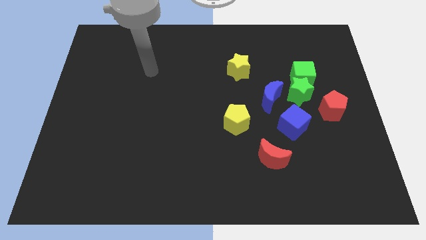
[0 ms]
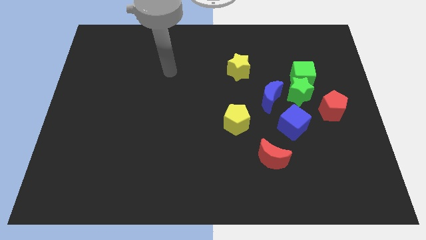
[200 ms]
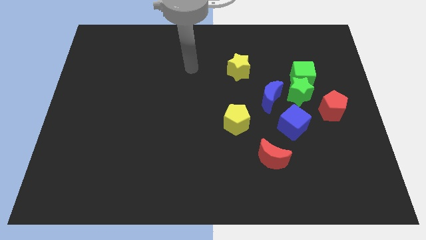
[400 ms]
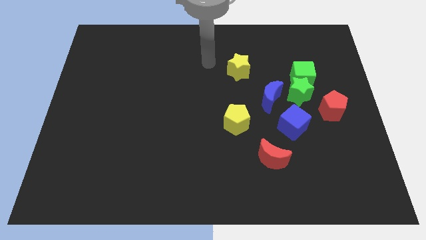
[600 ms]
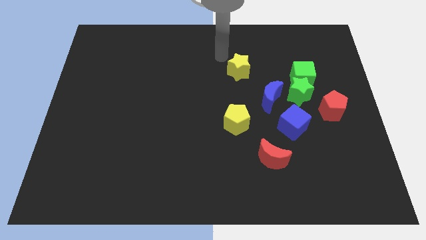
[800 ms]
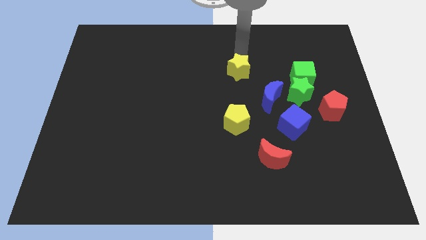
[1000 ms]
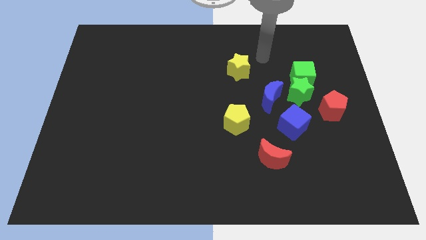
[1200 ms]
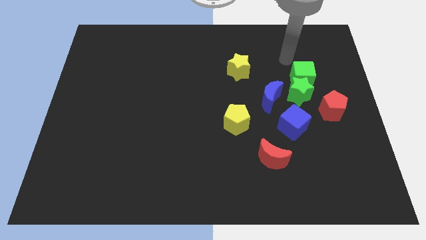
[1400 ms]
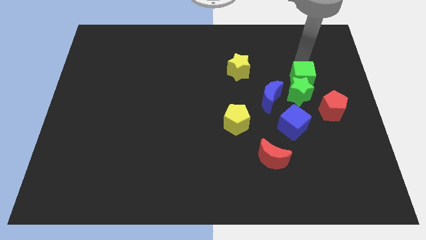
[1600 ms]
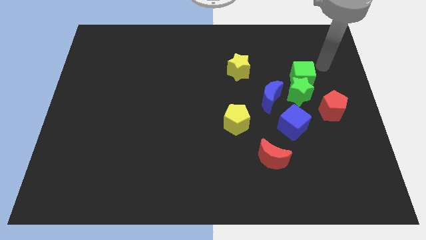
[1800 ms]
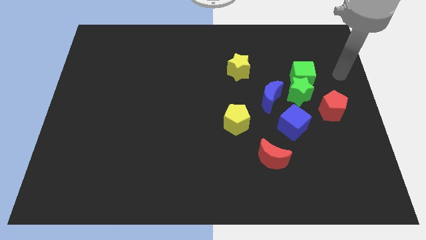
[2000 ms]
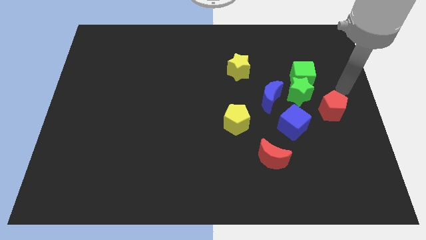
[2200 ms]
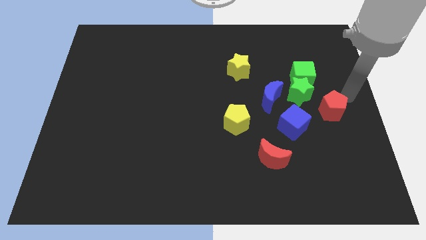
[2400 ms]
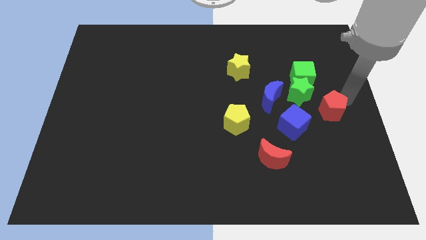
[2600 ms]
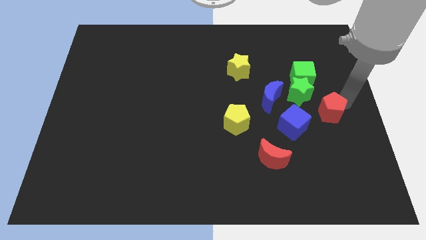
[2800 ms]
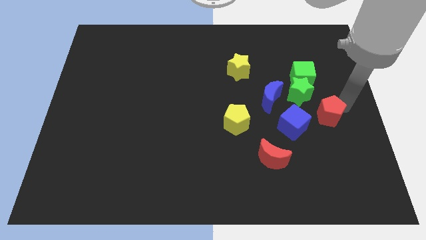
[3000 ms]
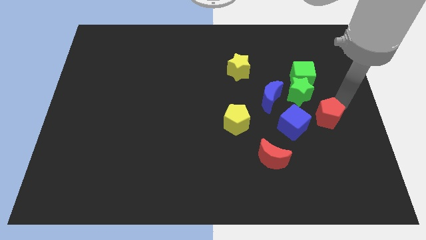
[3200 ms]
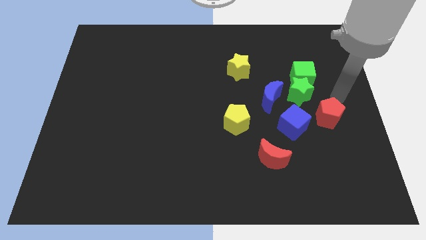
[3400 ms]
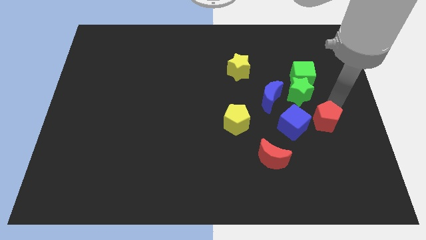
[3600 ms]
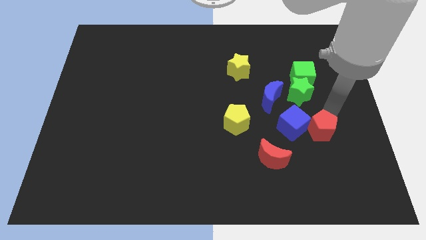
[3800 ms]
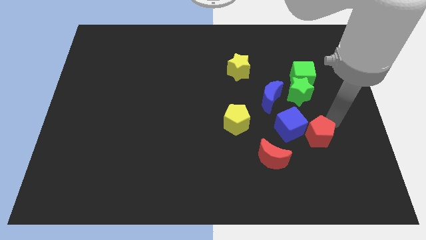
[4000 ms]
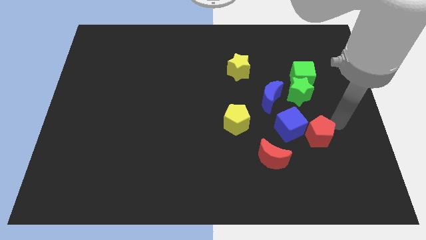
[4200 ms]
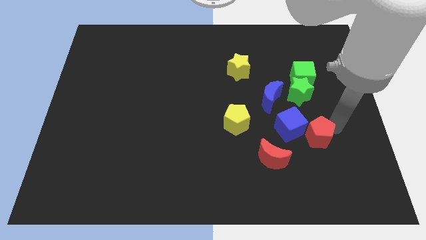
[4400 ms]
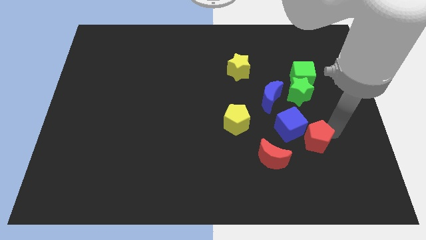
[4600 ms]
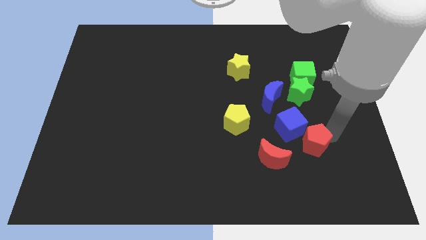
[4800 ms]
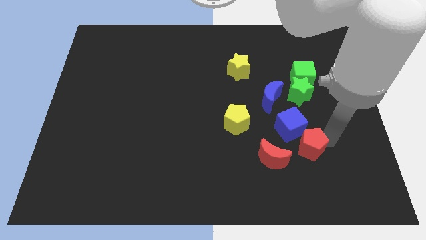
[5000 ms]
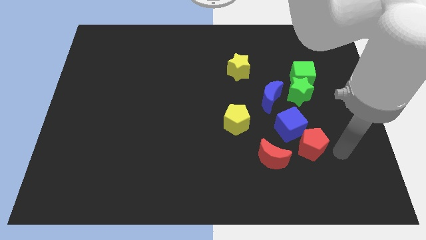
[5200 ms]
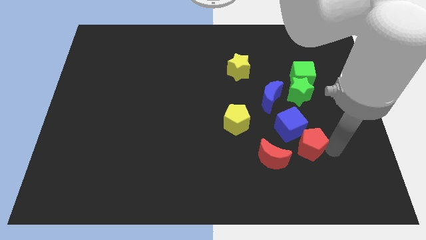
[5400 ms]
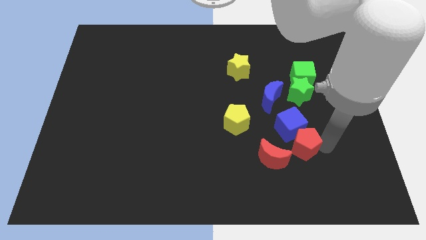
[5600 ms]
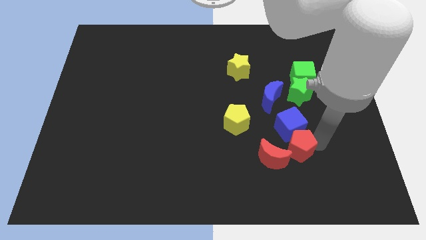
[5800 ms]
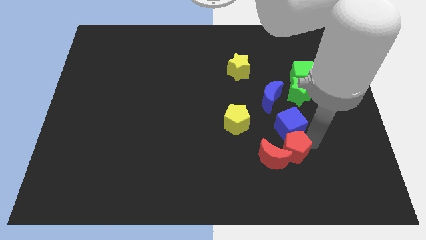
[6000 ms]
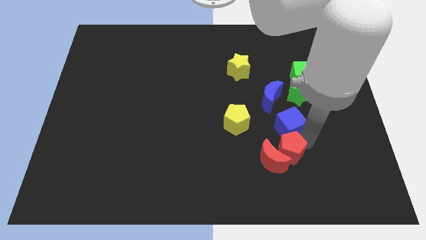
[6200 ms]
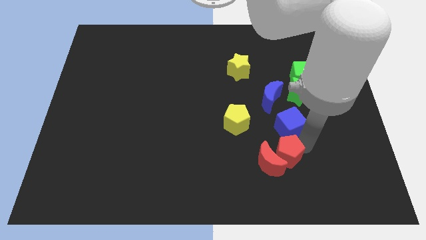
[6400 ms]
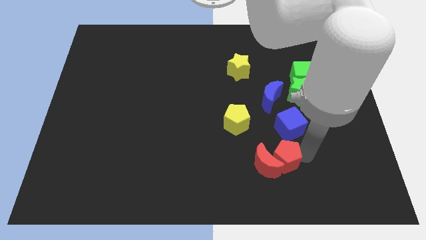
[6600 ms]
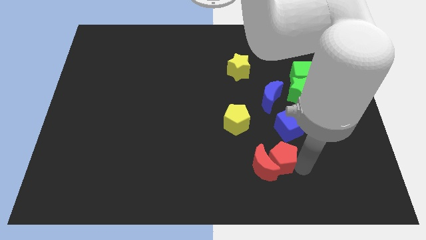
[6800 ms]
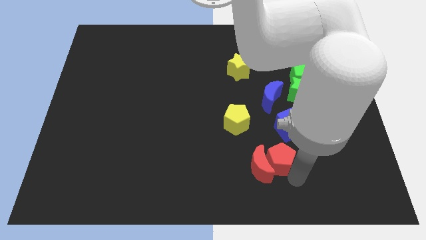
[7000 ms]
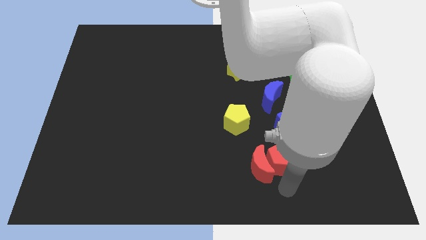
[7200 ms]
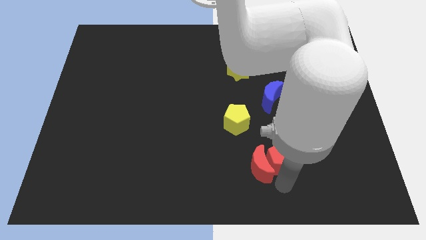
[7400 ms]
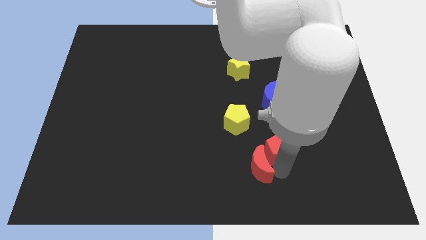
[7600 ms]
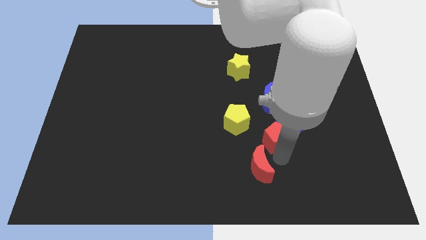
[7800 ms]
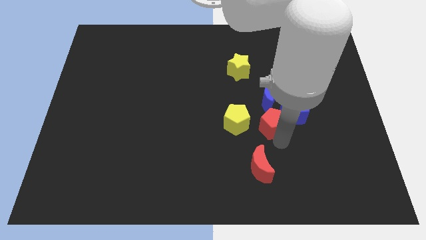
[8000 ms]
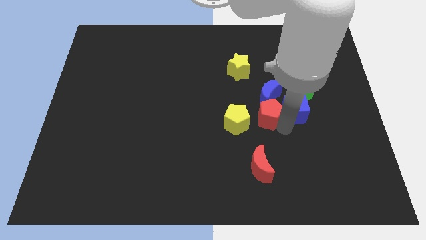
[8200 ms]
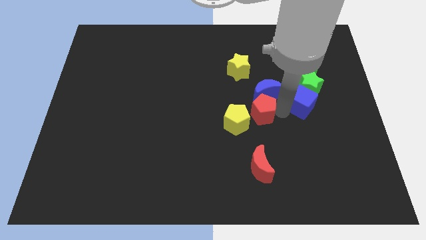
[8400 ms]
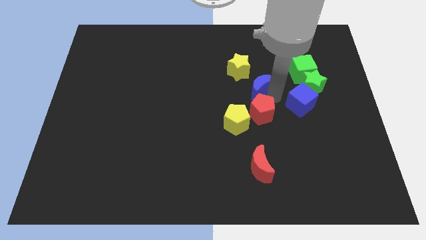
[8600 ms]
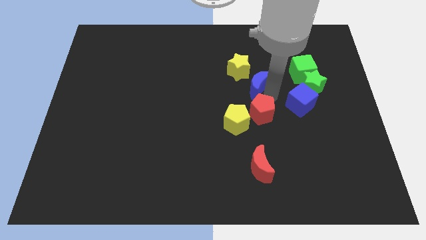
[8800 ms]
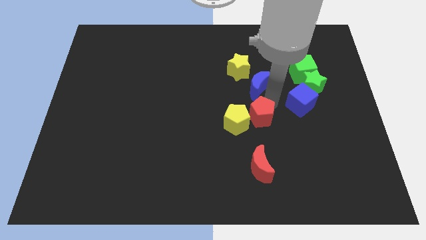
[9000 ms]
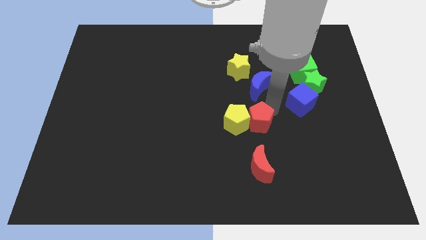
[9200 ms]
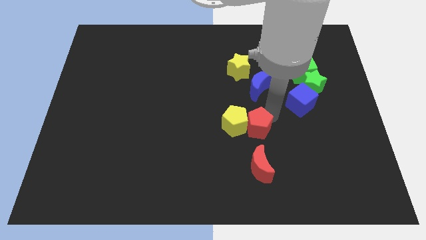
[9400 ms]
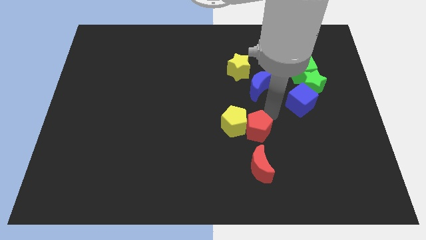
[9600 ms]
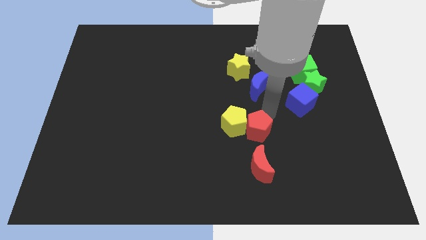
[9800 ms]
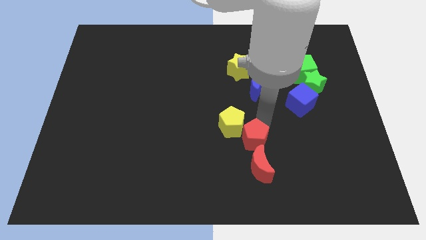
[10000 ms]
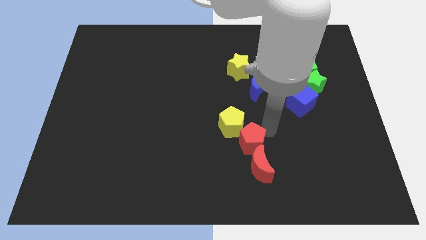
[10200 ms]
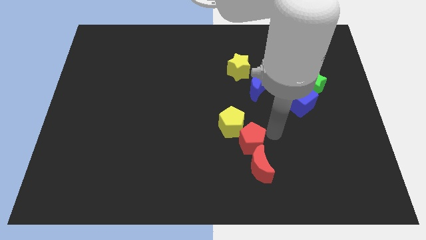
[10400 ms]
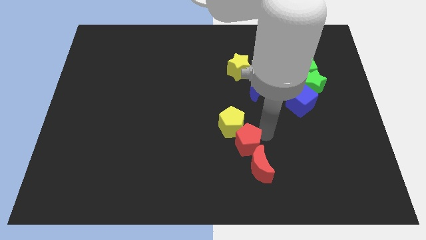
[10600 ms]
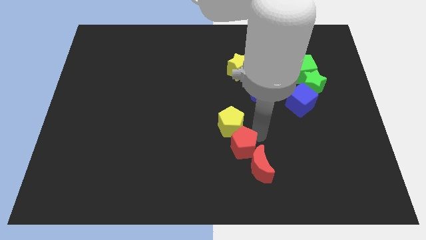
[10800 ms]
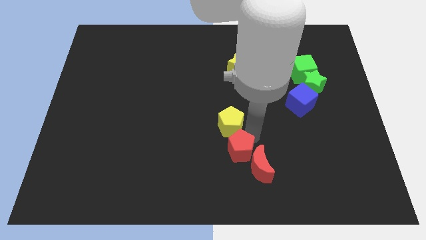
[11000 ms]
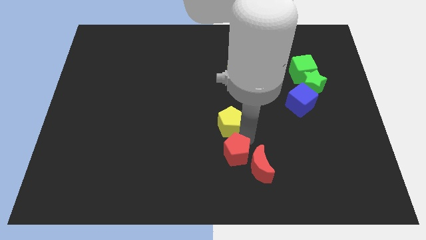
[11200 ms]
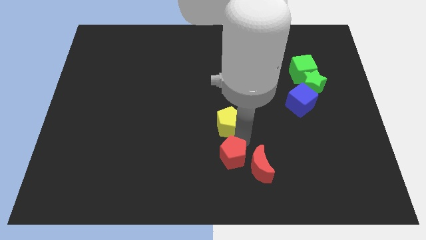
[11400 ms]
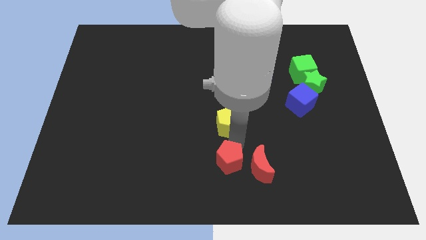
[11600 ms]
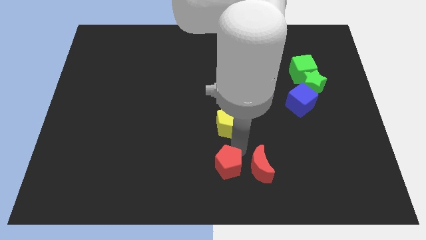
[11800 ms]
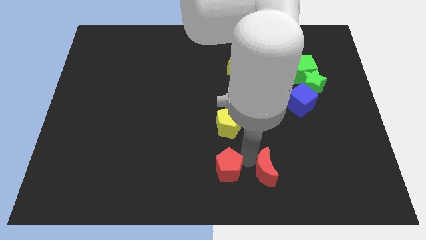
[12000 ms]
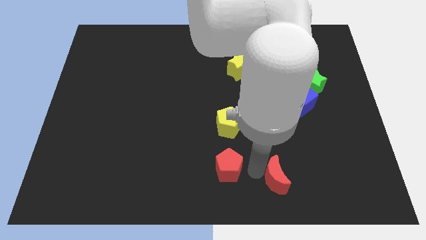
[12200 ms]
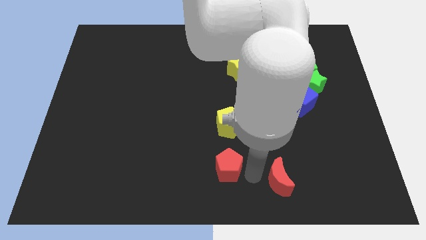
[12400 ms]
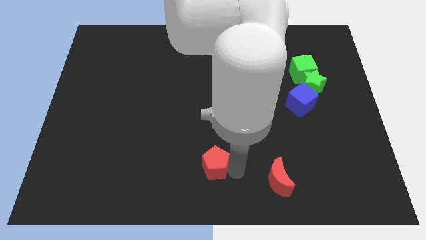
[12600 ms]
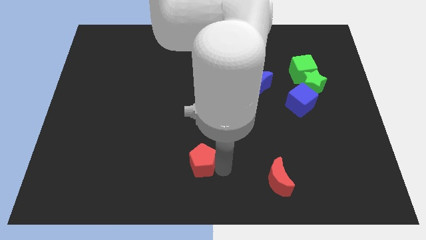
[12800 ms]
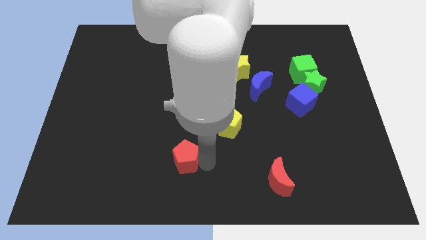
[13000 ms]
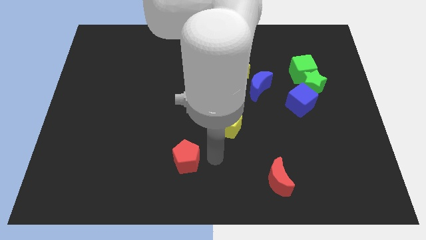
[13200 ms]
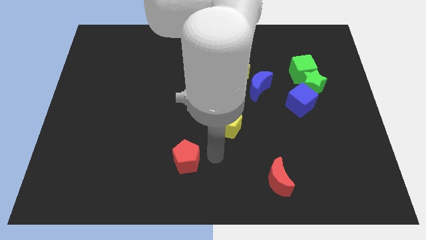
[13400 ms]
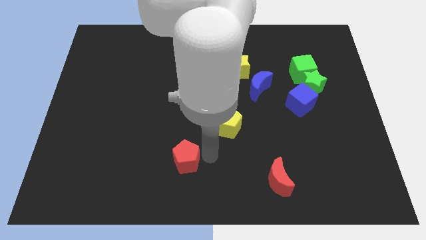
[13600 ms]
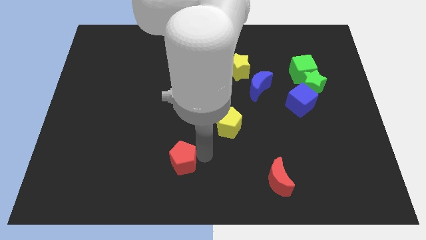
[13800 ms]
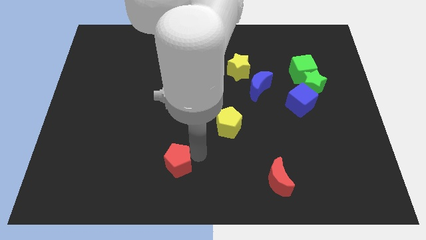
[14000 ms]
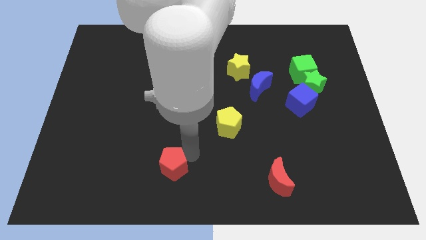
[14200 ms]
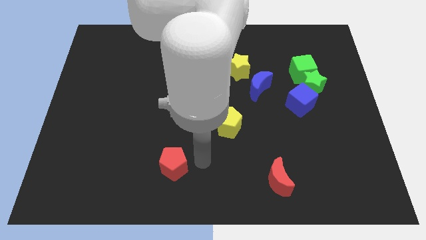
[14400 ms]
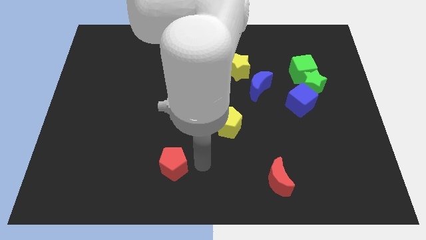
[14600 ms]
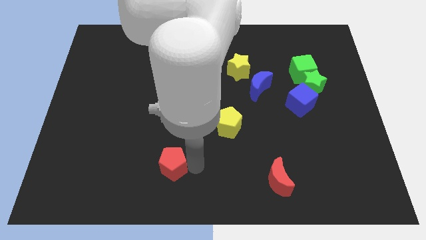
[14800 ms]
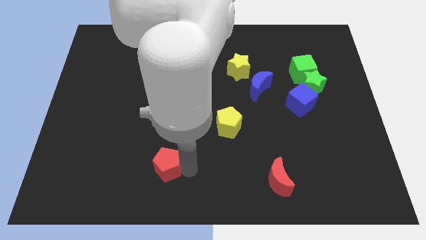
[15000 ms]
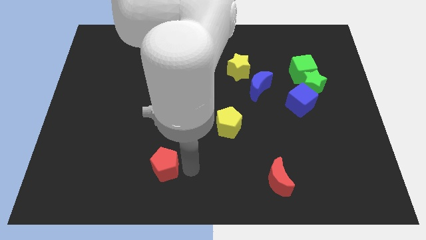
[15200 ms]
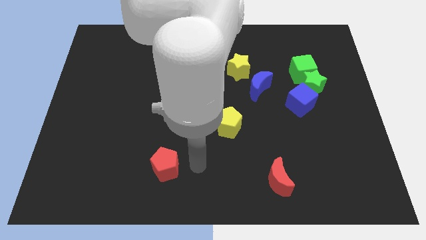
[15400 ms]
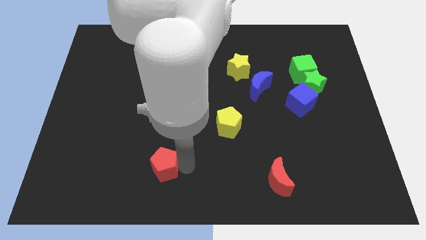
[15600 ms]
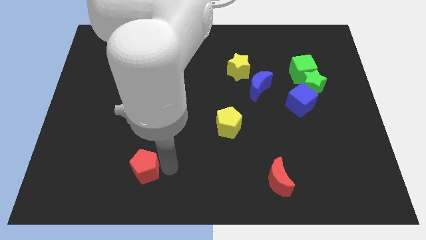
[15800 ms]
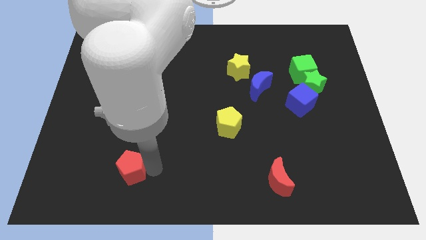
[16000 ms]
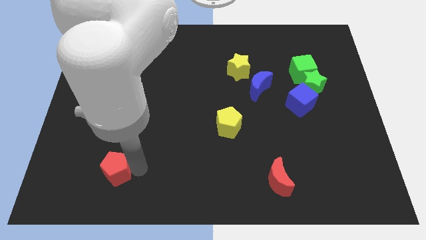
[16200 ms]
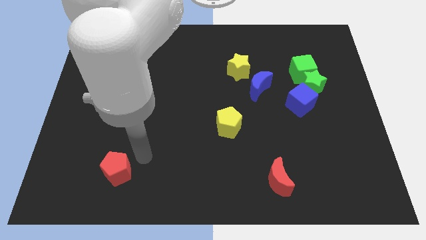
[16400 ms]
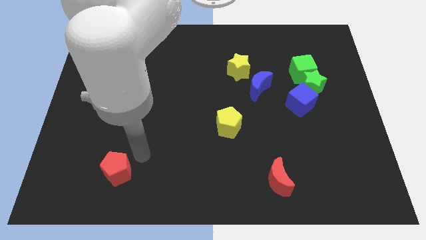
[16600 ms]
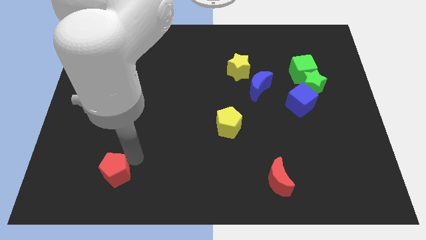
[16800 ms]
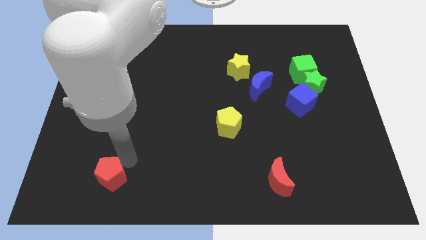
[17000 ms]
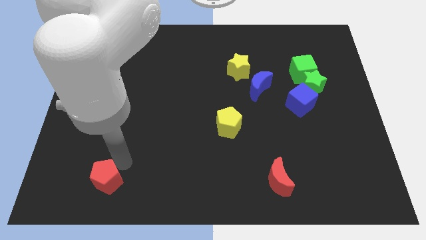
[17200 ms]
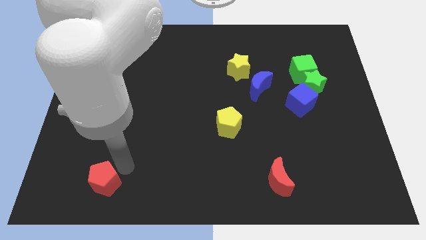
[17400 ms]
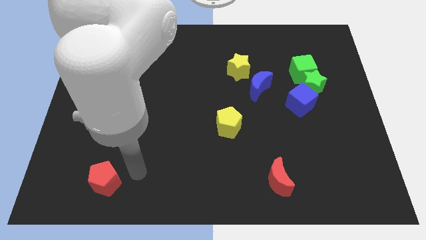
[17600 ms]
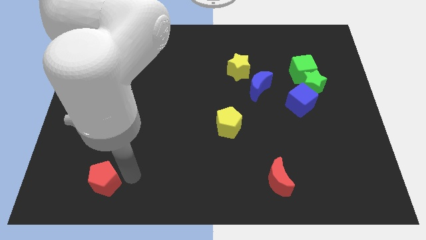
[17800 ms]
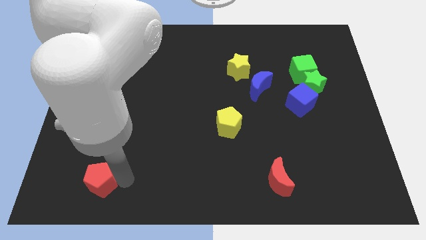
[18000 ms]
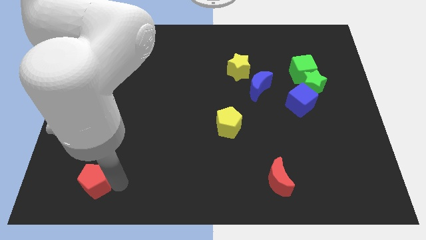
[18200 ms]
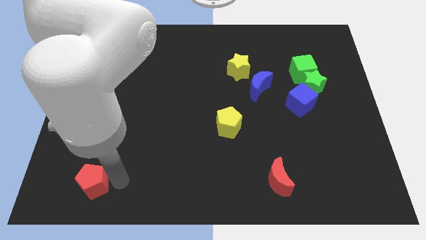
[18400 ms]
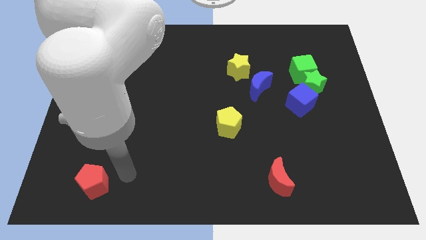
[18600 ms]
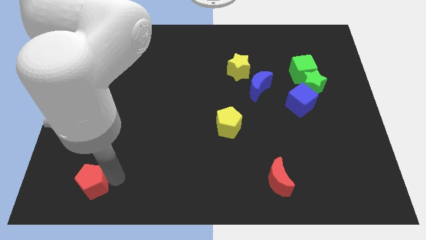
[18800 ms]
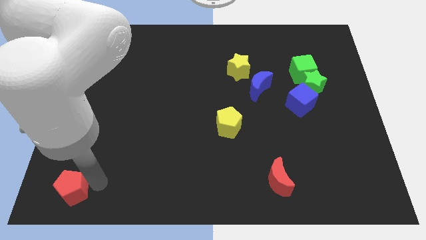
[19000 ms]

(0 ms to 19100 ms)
move the red pentagon to the lower left corner
